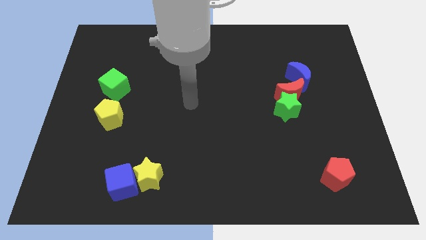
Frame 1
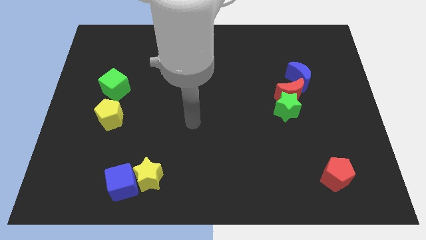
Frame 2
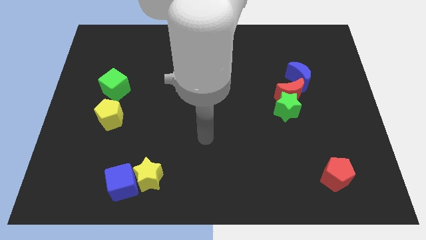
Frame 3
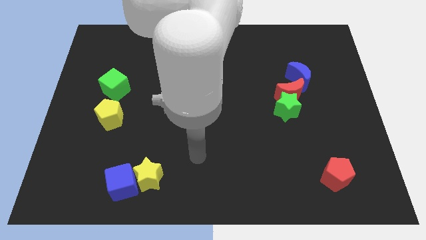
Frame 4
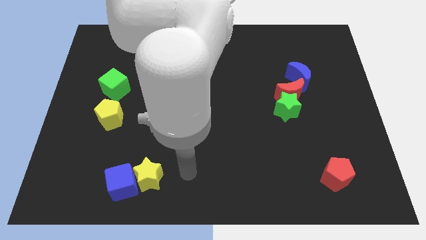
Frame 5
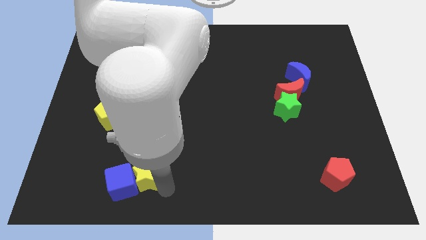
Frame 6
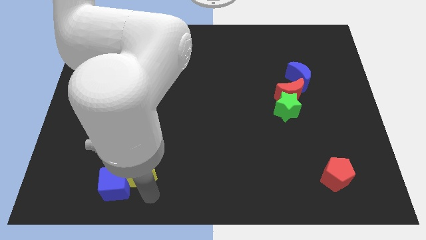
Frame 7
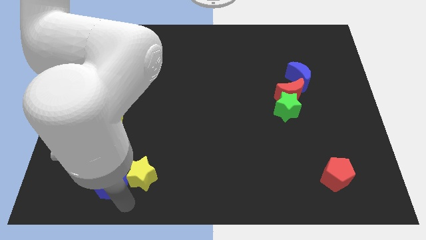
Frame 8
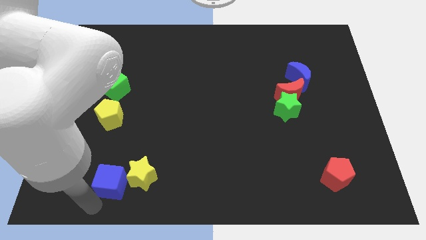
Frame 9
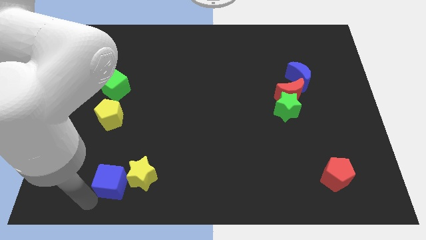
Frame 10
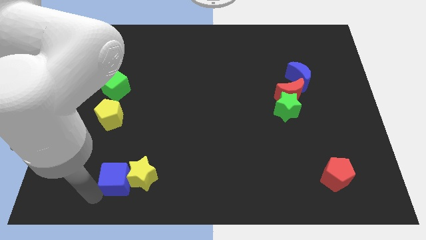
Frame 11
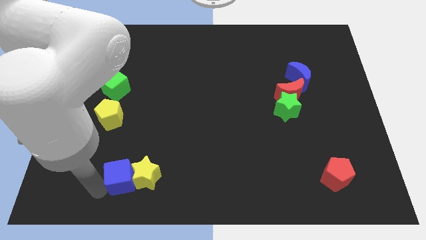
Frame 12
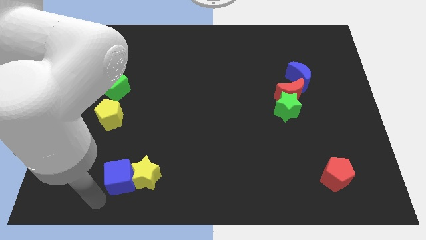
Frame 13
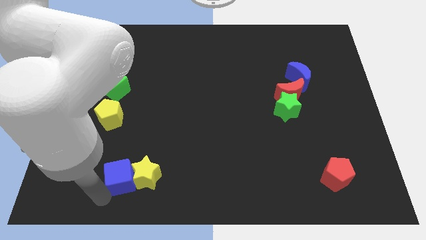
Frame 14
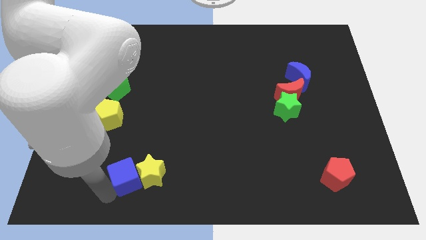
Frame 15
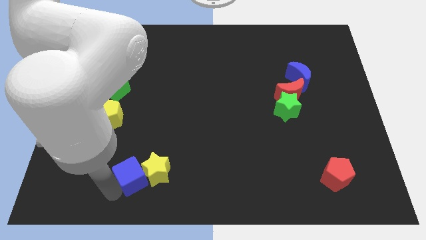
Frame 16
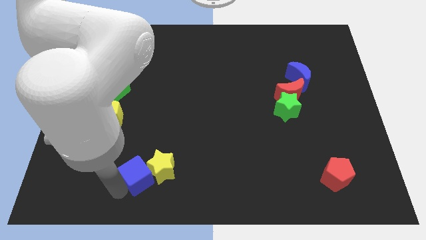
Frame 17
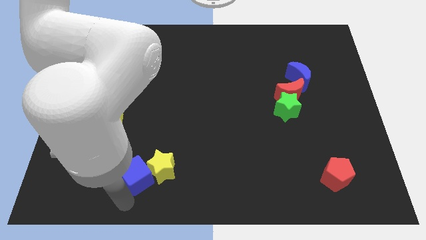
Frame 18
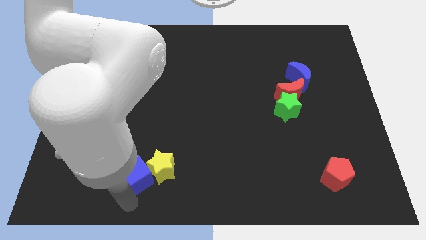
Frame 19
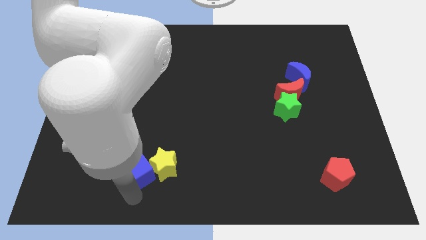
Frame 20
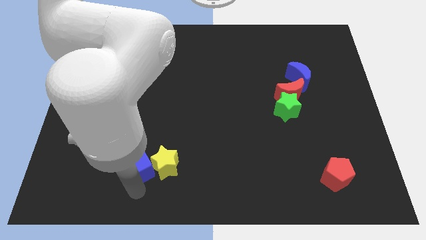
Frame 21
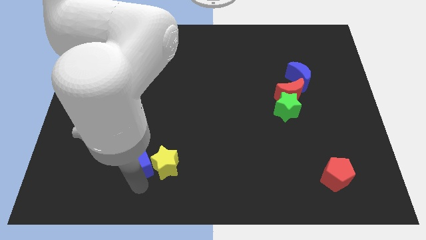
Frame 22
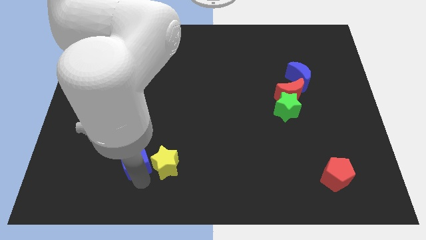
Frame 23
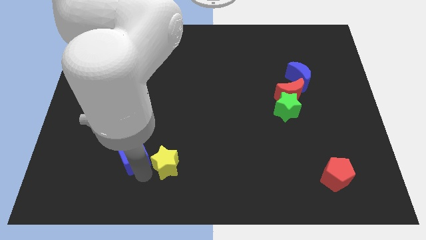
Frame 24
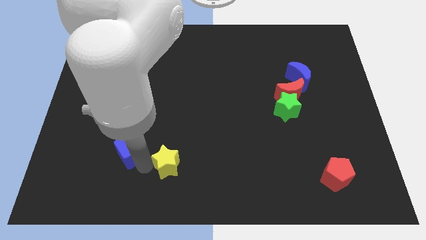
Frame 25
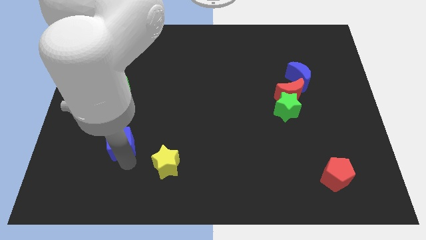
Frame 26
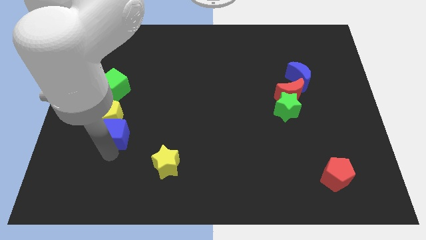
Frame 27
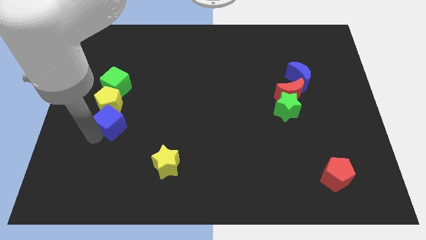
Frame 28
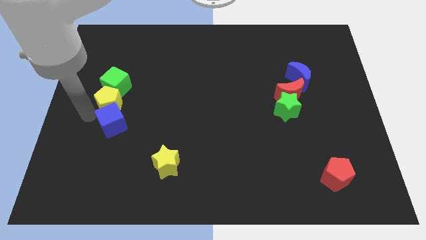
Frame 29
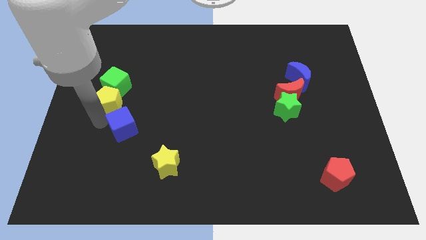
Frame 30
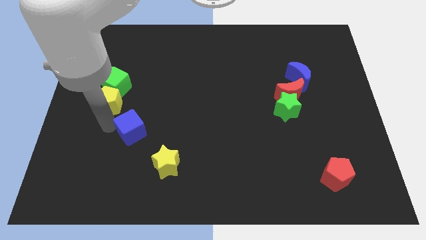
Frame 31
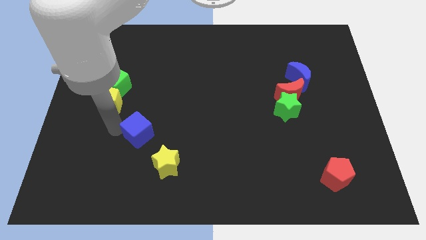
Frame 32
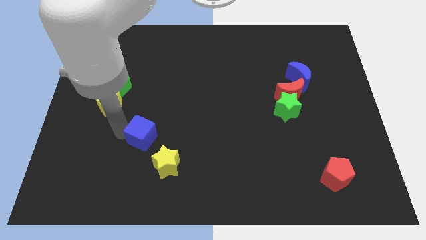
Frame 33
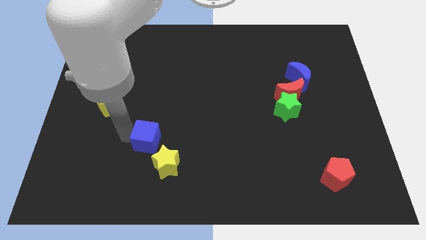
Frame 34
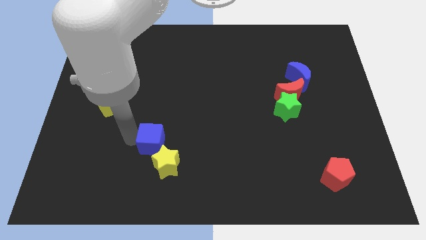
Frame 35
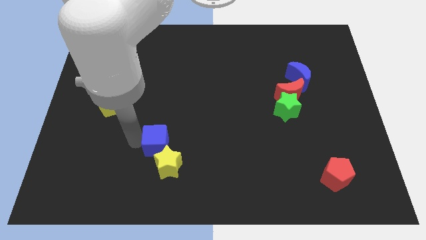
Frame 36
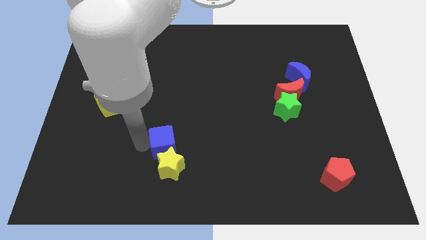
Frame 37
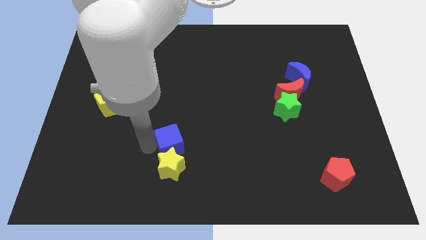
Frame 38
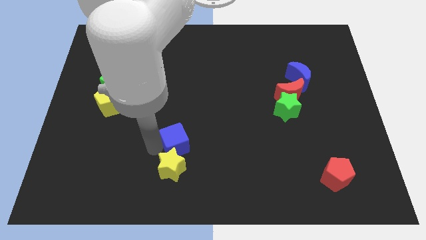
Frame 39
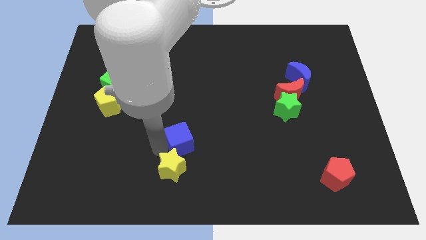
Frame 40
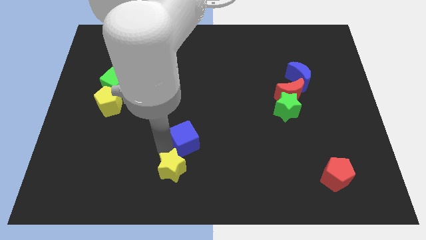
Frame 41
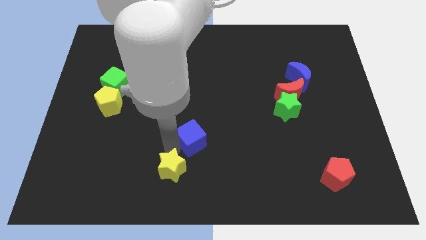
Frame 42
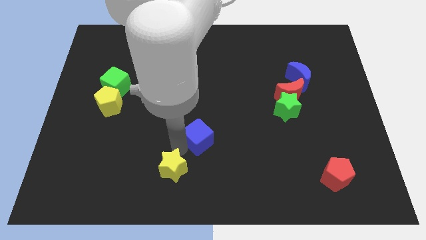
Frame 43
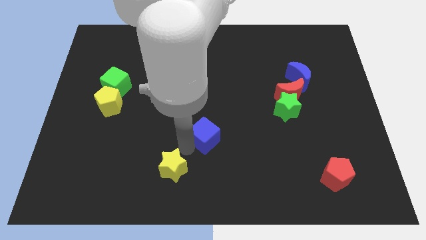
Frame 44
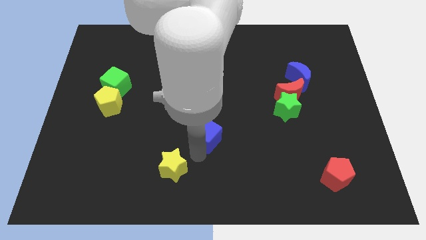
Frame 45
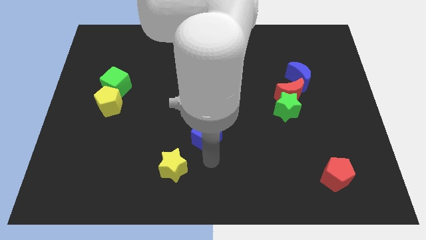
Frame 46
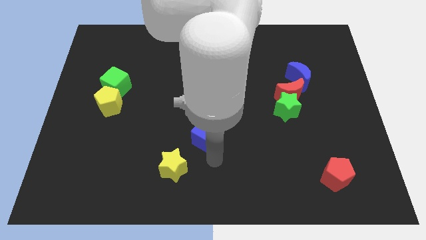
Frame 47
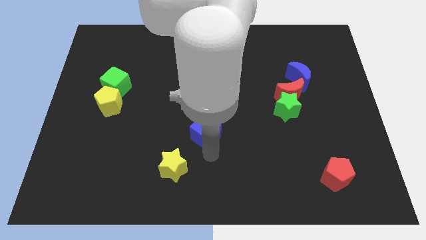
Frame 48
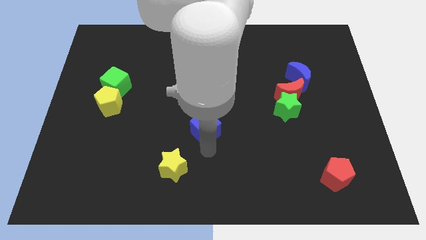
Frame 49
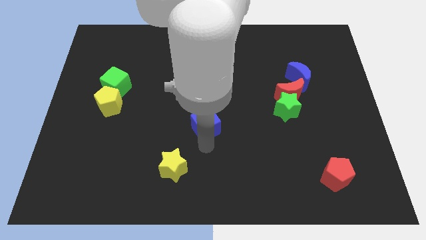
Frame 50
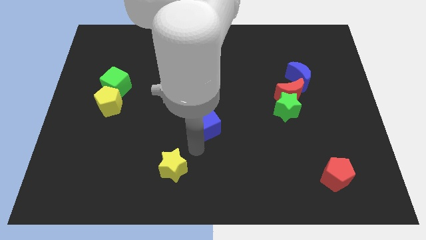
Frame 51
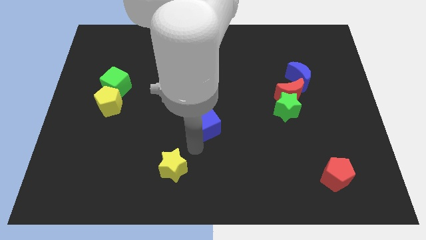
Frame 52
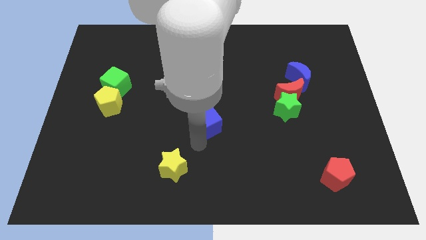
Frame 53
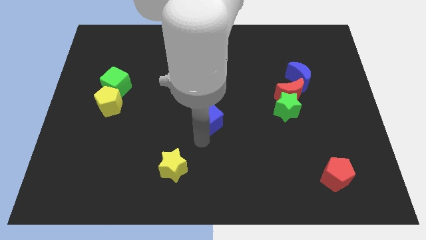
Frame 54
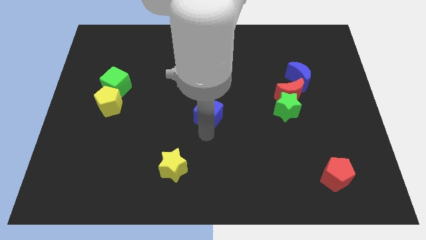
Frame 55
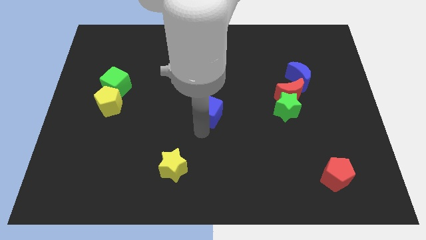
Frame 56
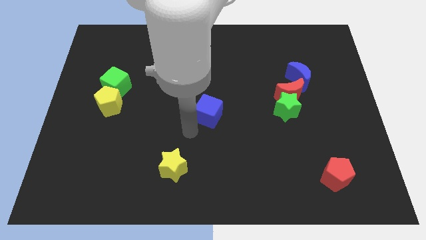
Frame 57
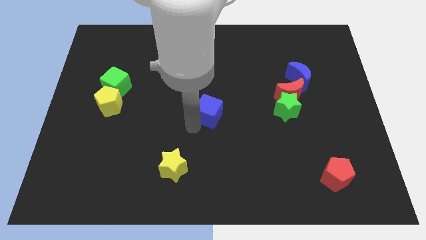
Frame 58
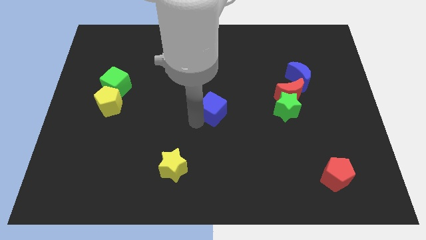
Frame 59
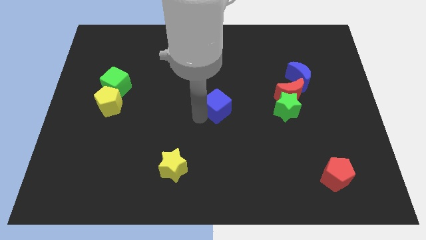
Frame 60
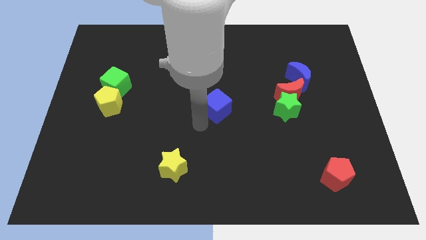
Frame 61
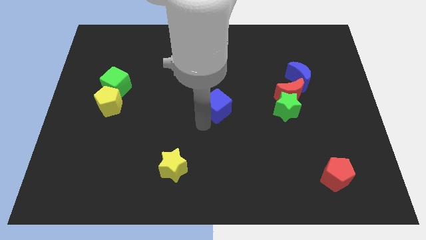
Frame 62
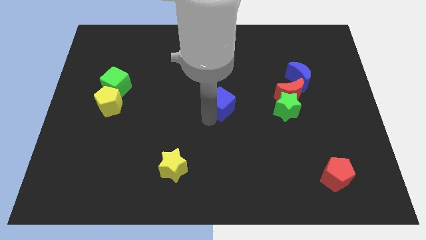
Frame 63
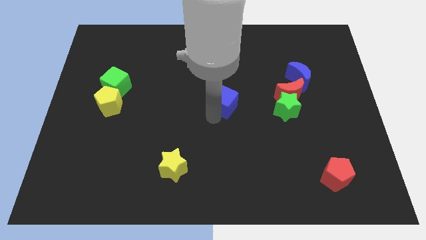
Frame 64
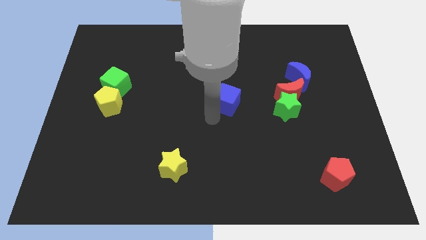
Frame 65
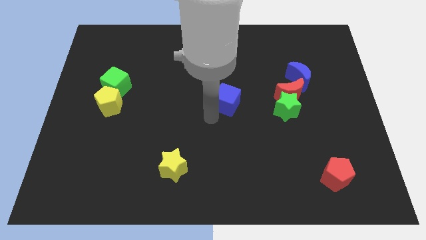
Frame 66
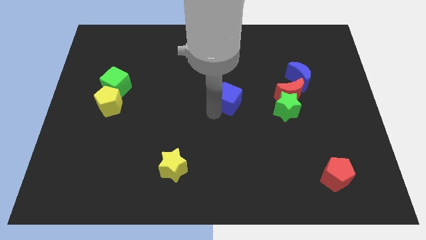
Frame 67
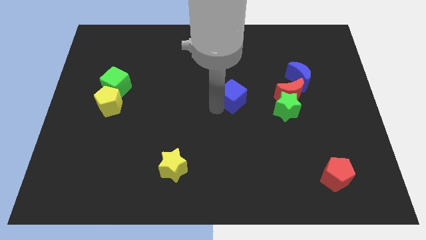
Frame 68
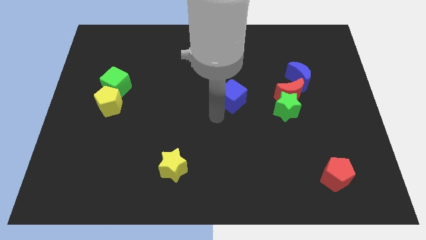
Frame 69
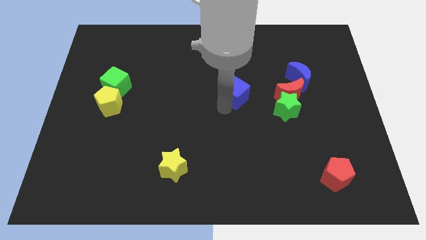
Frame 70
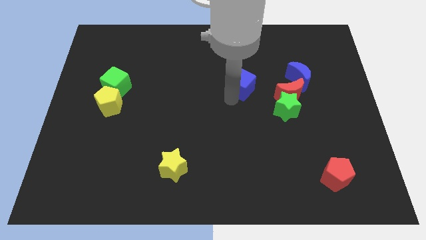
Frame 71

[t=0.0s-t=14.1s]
slide the blue cube left of the blue moon
